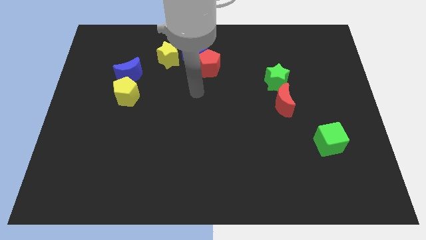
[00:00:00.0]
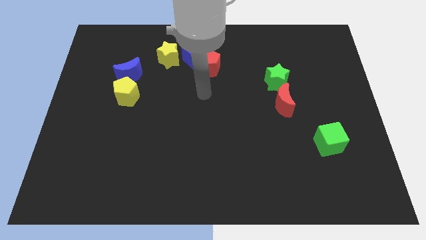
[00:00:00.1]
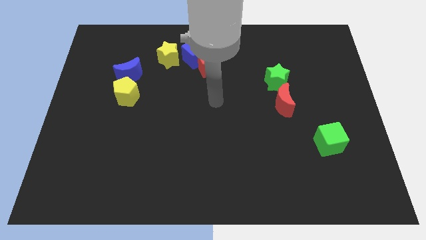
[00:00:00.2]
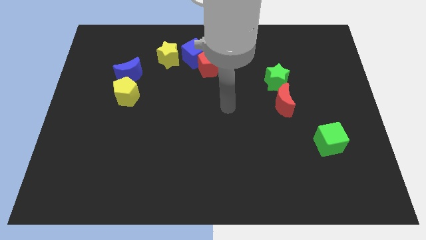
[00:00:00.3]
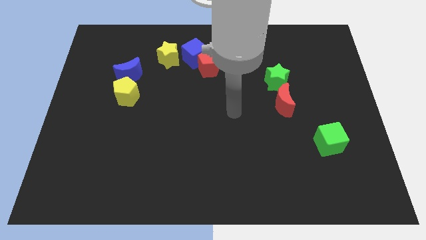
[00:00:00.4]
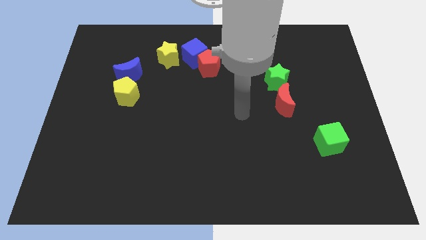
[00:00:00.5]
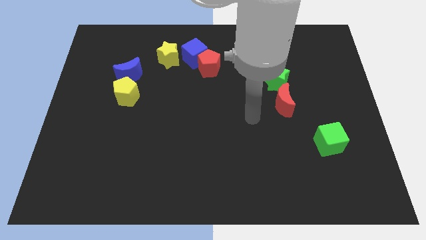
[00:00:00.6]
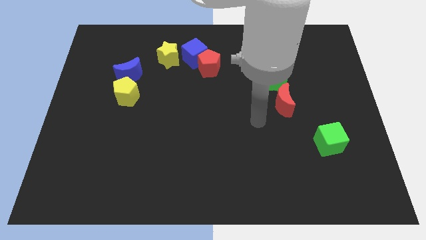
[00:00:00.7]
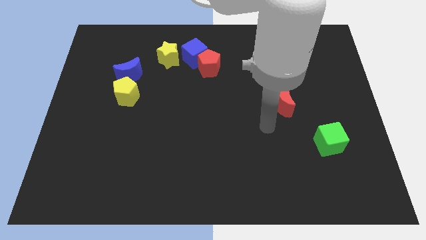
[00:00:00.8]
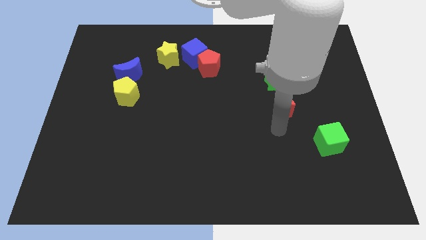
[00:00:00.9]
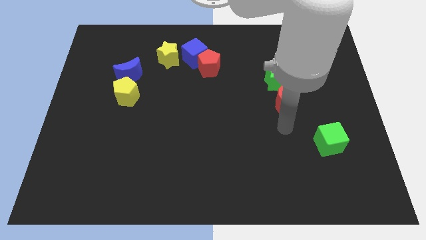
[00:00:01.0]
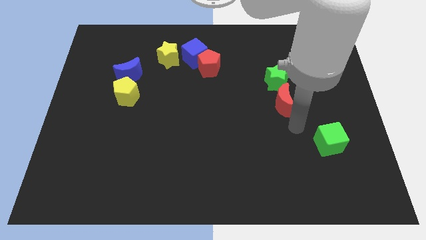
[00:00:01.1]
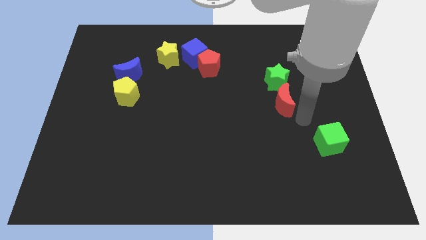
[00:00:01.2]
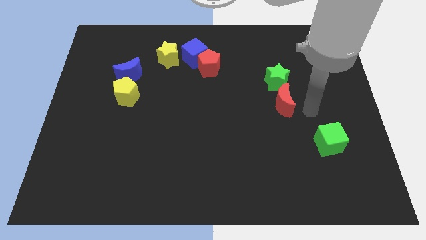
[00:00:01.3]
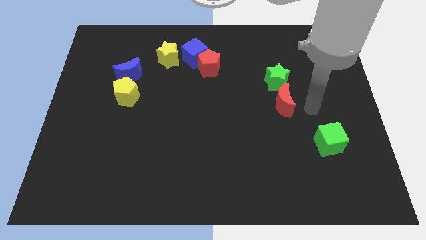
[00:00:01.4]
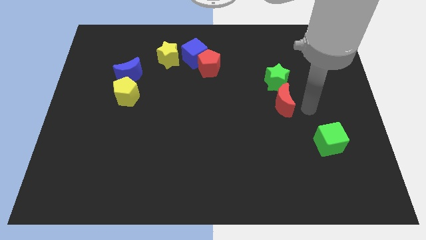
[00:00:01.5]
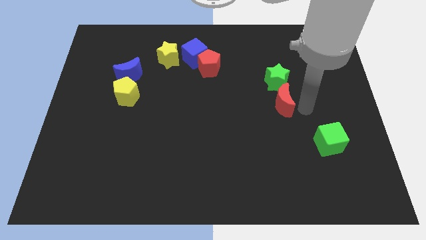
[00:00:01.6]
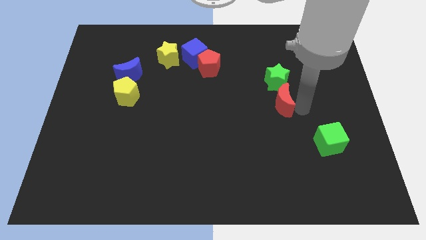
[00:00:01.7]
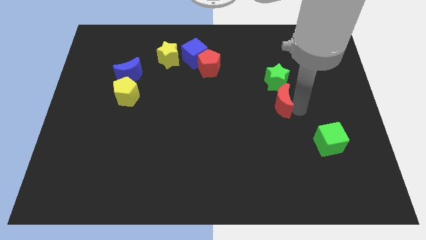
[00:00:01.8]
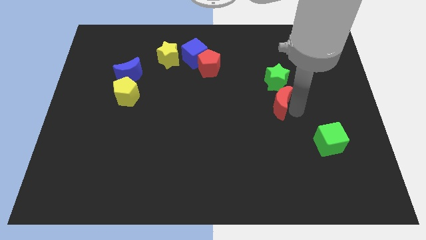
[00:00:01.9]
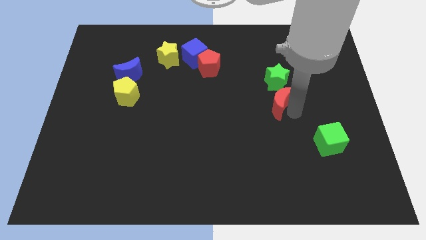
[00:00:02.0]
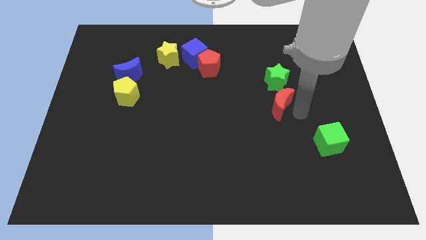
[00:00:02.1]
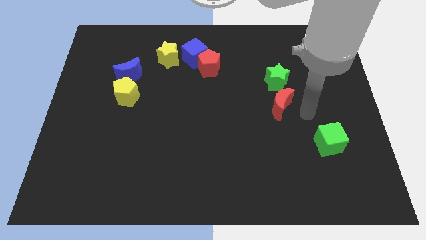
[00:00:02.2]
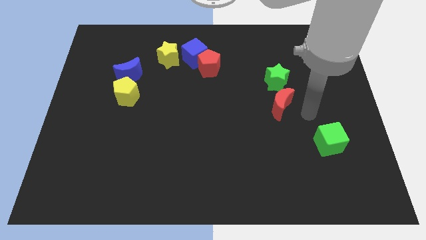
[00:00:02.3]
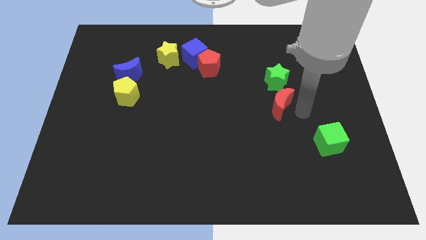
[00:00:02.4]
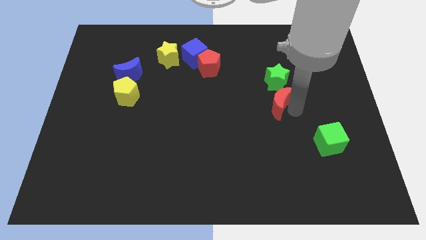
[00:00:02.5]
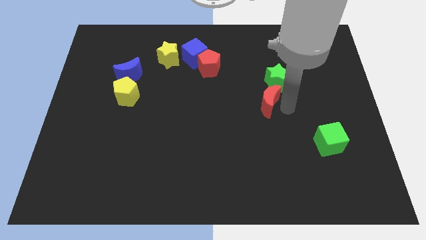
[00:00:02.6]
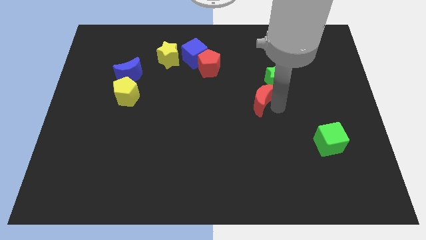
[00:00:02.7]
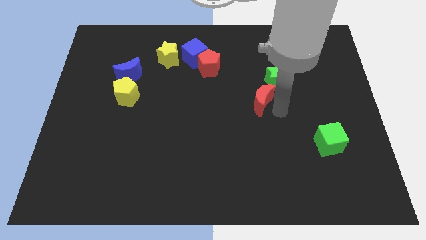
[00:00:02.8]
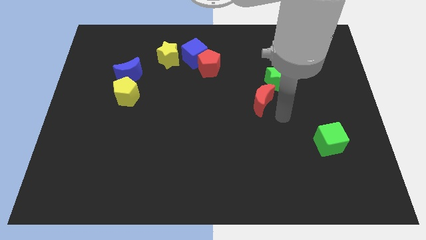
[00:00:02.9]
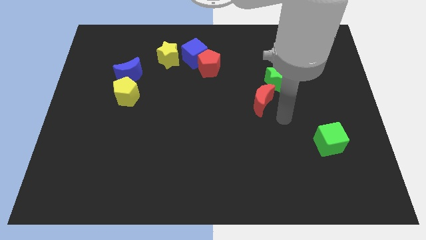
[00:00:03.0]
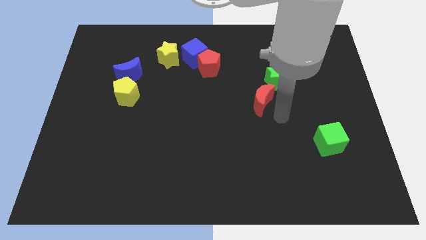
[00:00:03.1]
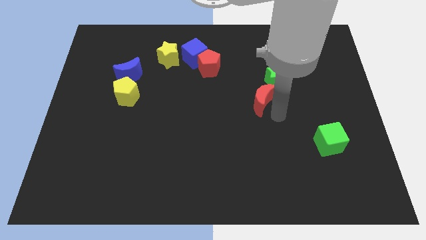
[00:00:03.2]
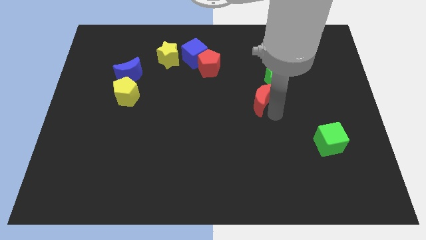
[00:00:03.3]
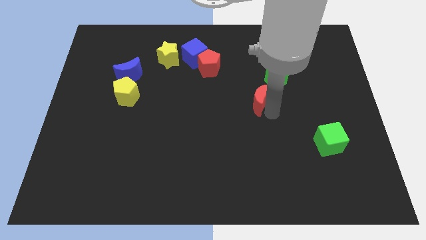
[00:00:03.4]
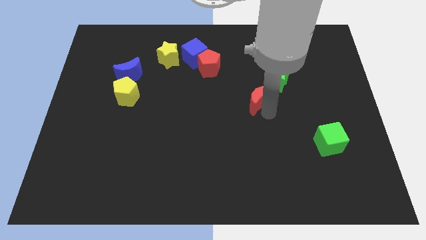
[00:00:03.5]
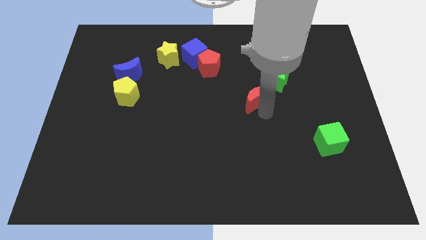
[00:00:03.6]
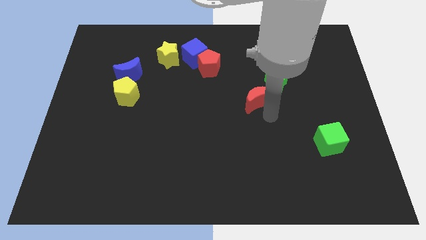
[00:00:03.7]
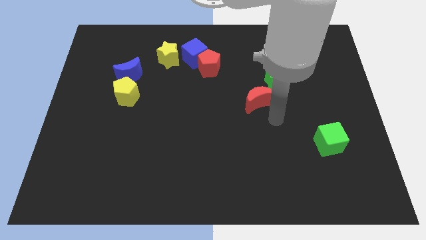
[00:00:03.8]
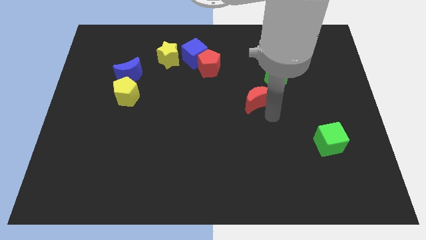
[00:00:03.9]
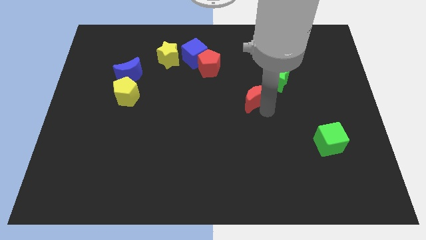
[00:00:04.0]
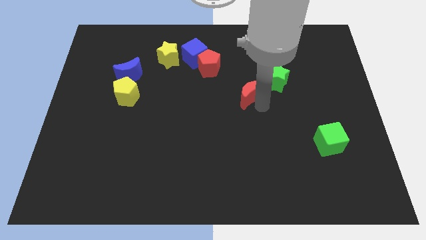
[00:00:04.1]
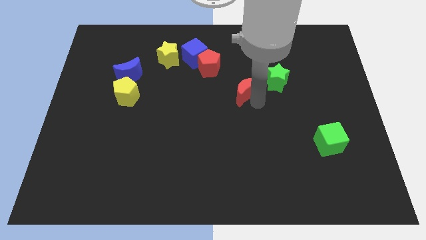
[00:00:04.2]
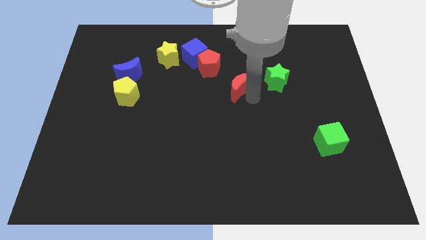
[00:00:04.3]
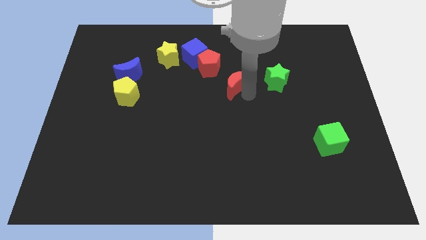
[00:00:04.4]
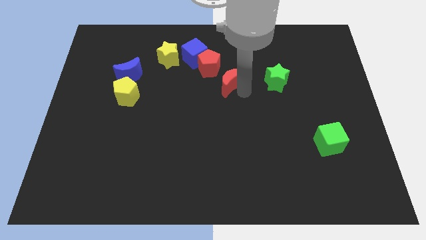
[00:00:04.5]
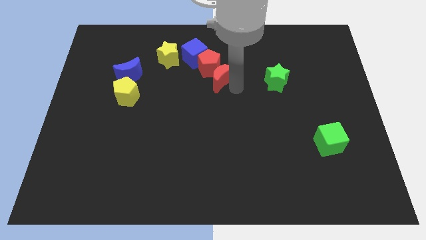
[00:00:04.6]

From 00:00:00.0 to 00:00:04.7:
push the red moon close to the red pentagon

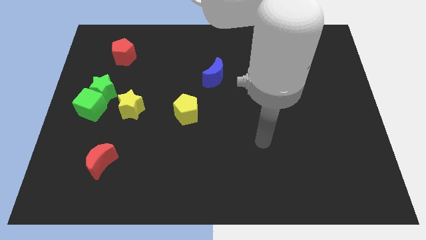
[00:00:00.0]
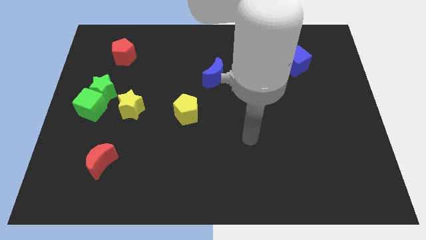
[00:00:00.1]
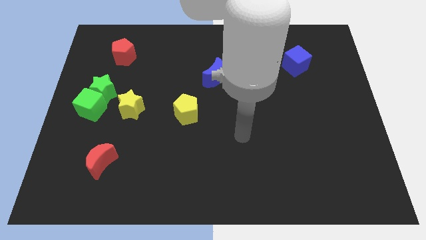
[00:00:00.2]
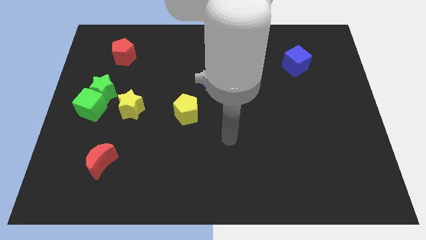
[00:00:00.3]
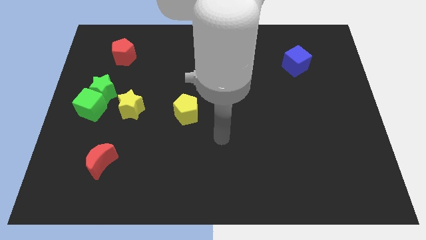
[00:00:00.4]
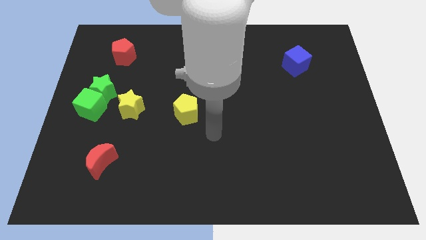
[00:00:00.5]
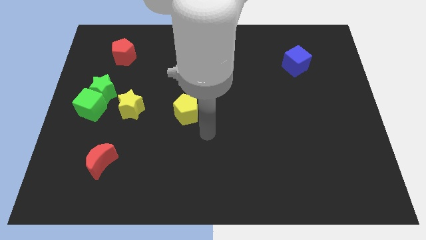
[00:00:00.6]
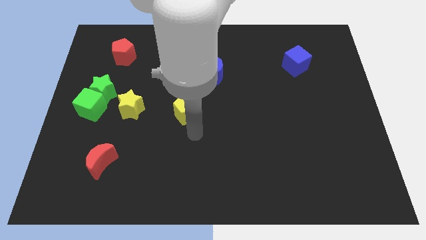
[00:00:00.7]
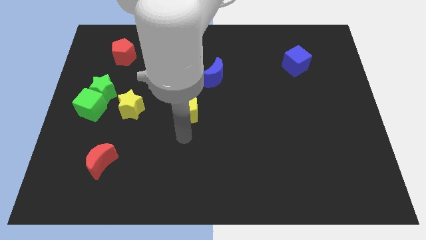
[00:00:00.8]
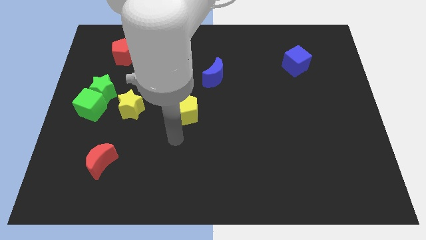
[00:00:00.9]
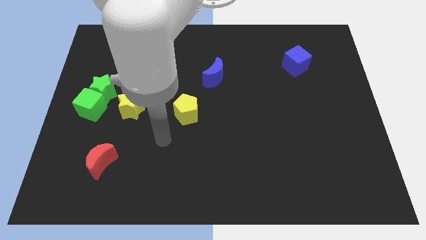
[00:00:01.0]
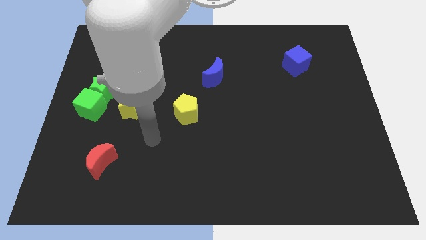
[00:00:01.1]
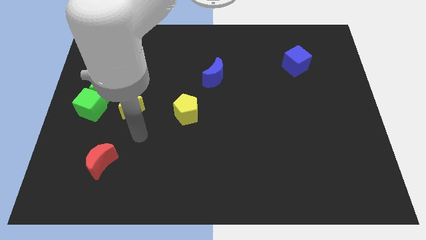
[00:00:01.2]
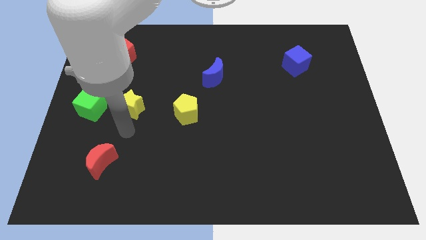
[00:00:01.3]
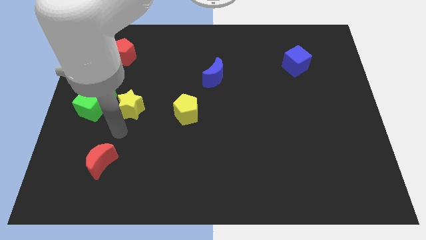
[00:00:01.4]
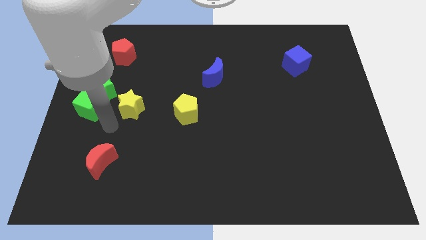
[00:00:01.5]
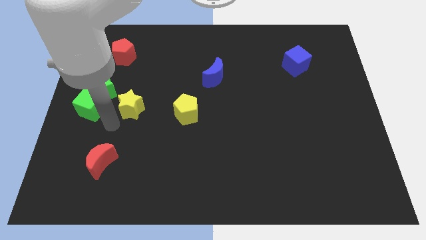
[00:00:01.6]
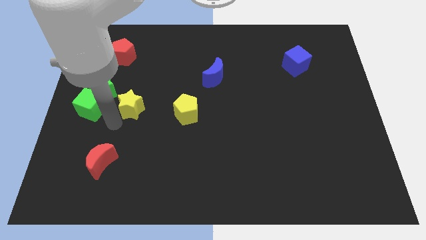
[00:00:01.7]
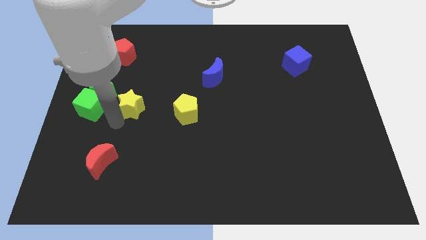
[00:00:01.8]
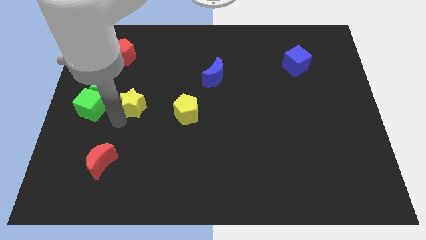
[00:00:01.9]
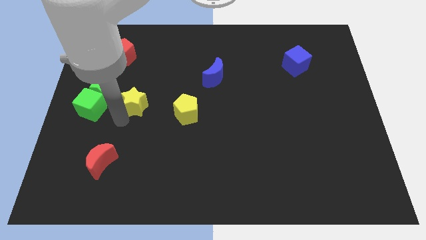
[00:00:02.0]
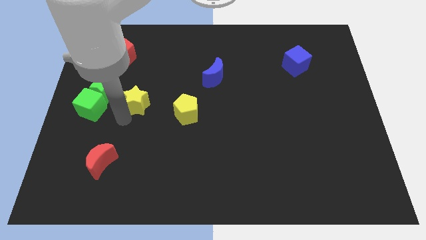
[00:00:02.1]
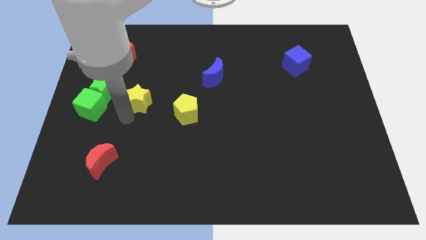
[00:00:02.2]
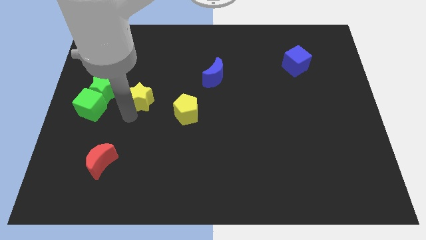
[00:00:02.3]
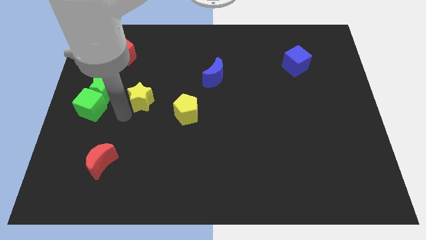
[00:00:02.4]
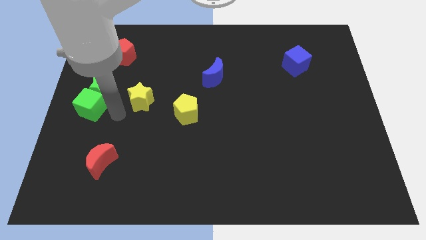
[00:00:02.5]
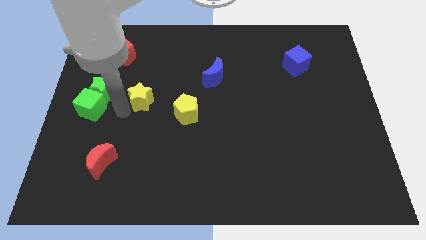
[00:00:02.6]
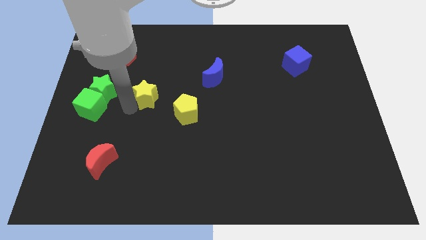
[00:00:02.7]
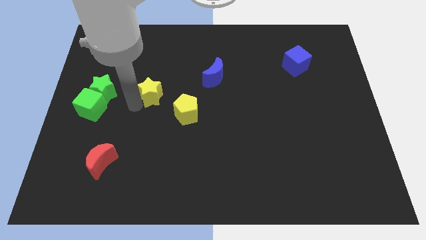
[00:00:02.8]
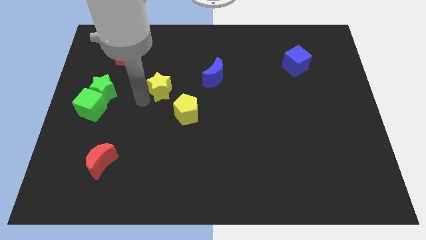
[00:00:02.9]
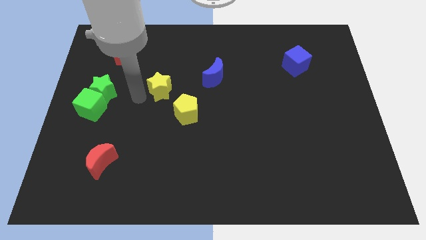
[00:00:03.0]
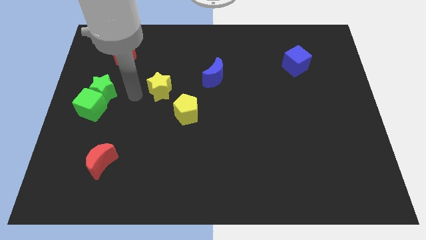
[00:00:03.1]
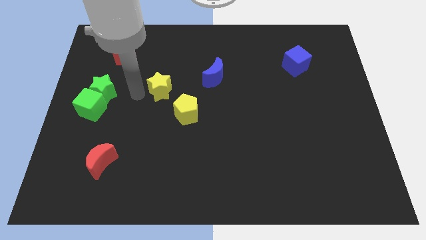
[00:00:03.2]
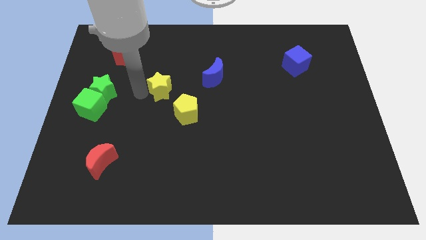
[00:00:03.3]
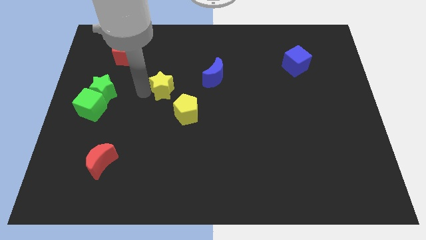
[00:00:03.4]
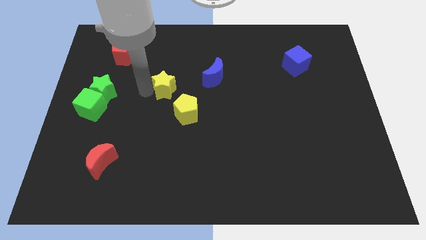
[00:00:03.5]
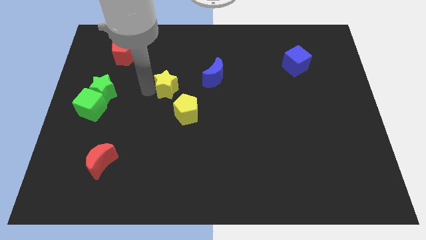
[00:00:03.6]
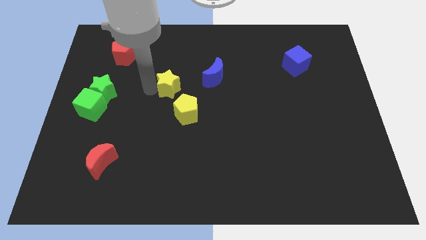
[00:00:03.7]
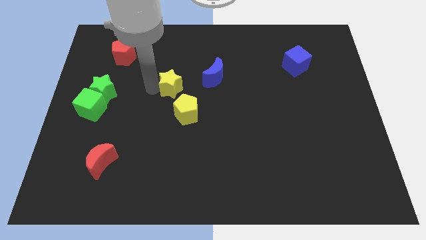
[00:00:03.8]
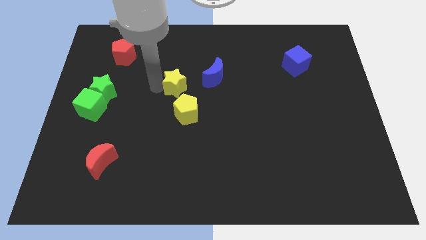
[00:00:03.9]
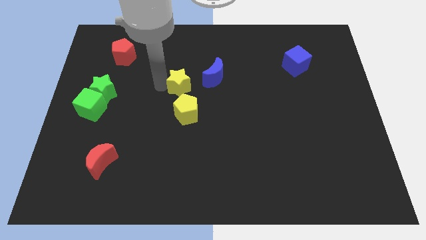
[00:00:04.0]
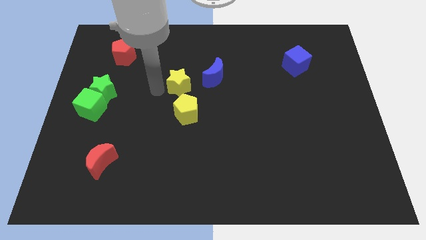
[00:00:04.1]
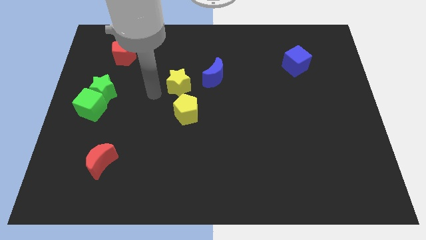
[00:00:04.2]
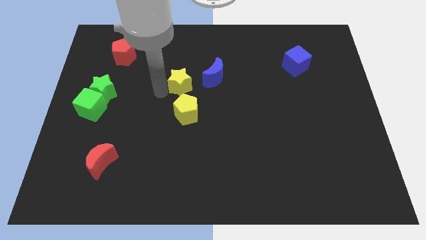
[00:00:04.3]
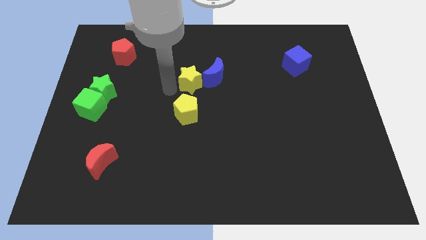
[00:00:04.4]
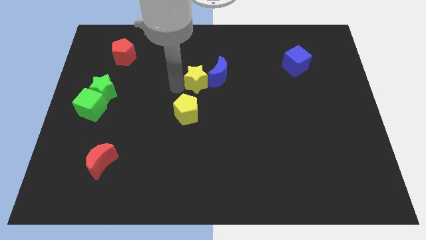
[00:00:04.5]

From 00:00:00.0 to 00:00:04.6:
move the yellow star next to the blue moon
